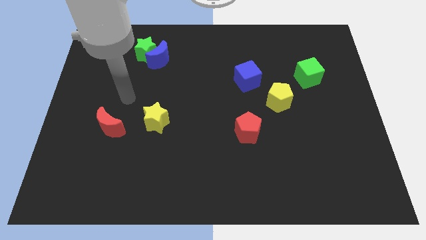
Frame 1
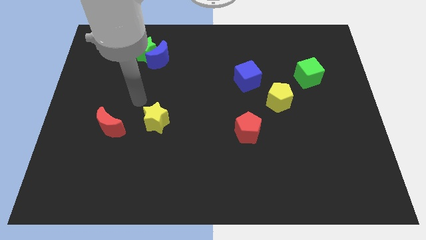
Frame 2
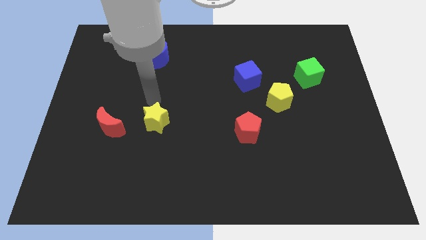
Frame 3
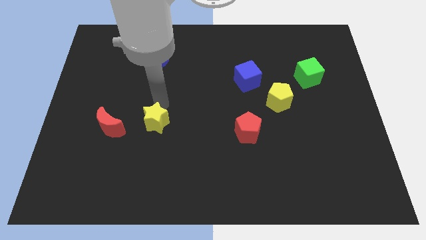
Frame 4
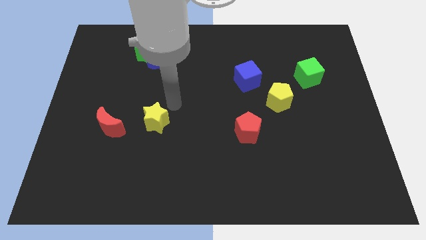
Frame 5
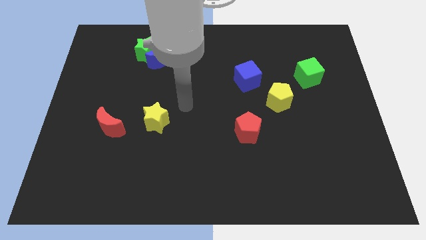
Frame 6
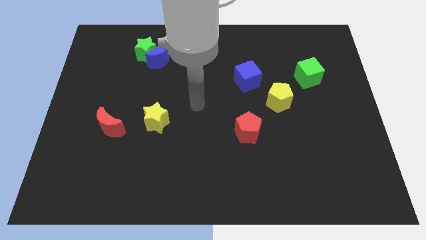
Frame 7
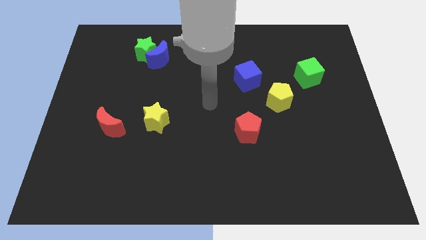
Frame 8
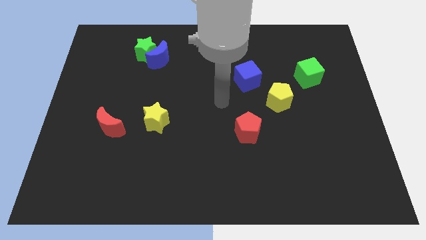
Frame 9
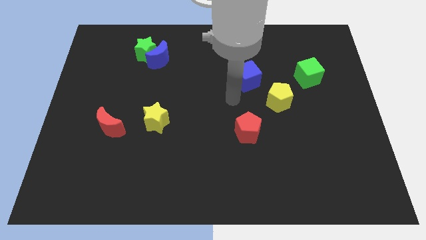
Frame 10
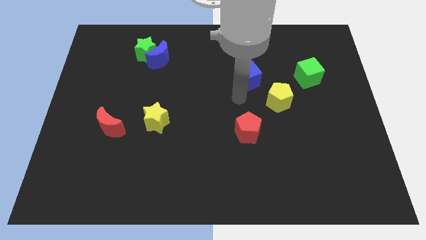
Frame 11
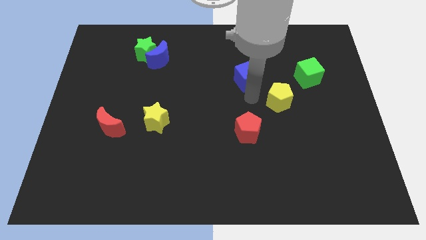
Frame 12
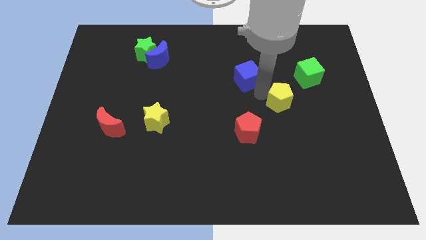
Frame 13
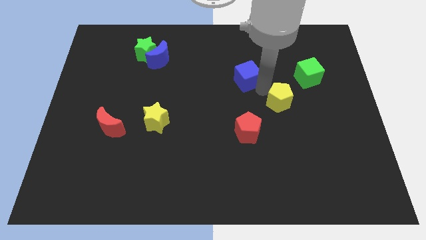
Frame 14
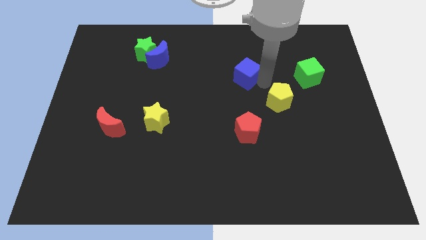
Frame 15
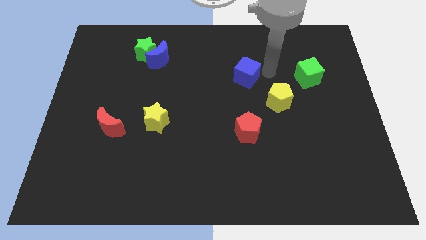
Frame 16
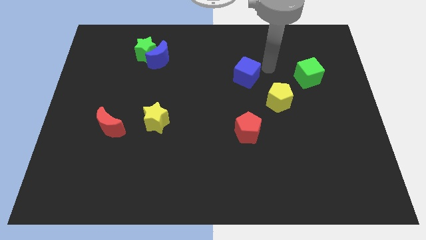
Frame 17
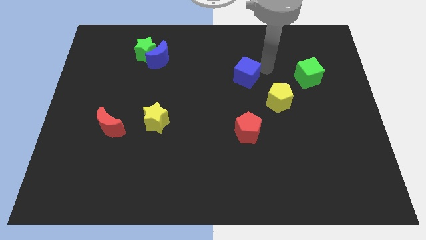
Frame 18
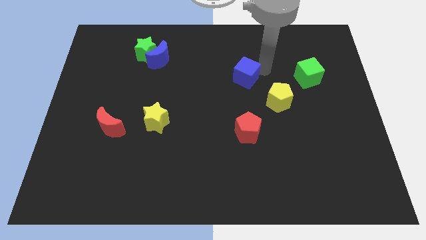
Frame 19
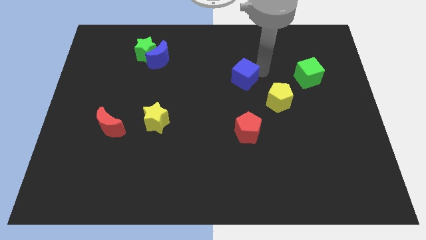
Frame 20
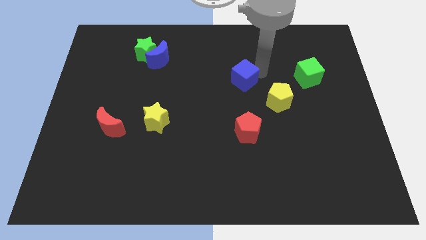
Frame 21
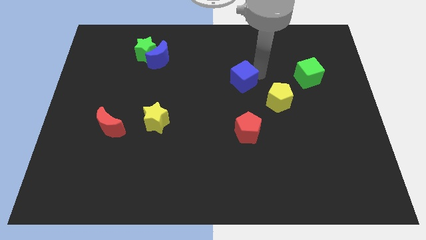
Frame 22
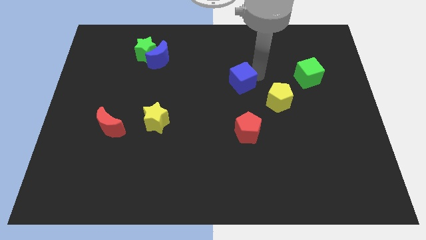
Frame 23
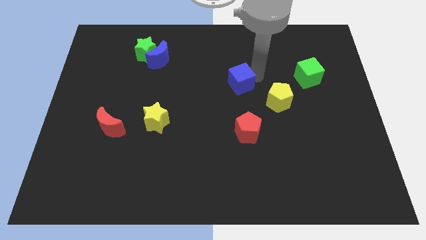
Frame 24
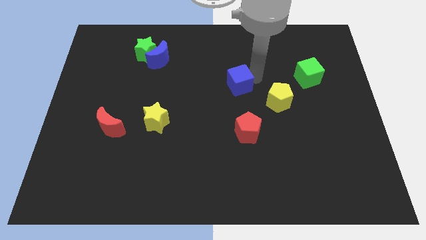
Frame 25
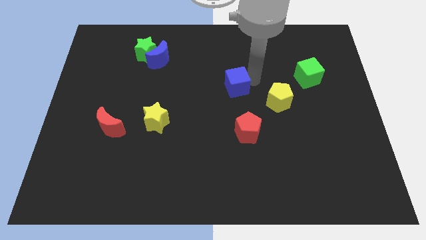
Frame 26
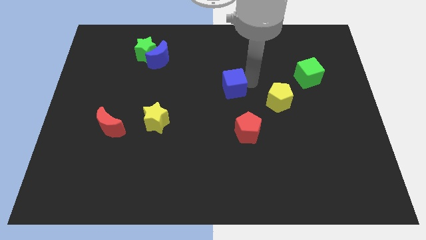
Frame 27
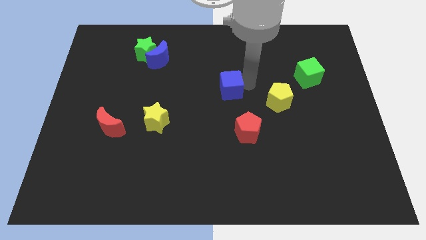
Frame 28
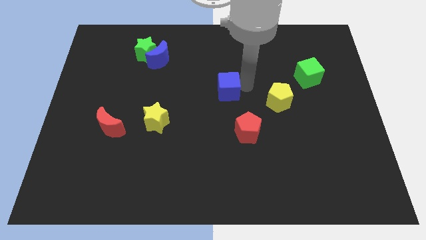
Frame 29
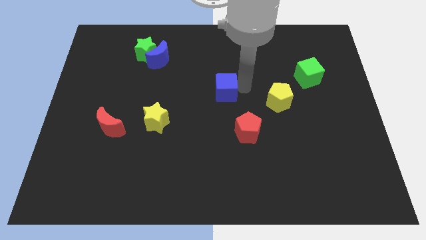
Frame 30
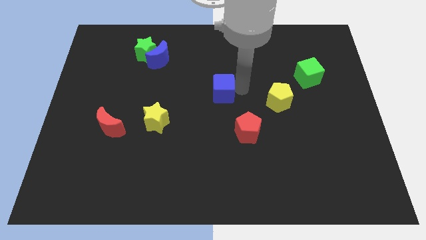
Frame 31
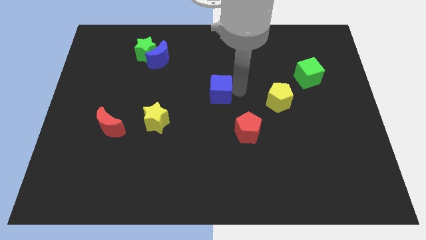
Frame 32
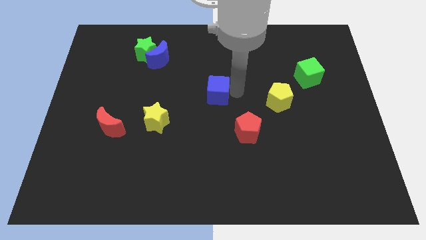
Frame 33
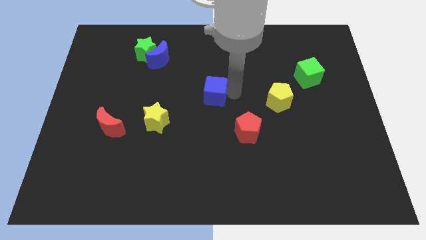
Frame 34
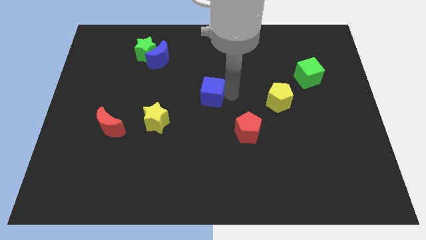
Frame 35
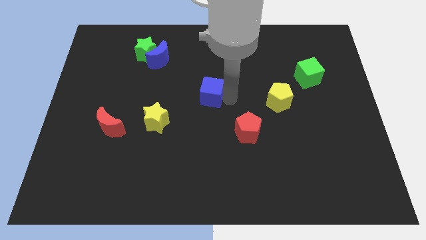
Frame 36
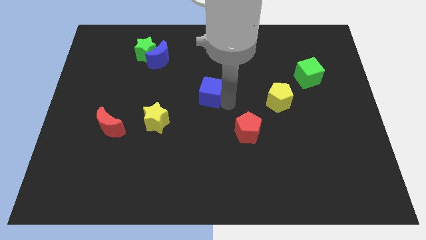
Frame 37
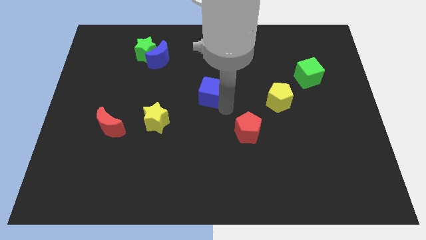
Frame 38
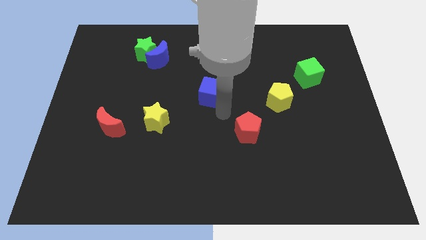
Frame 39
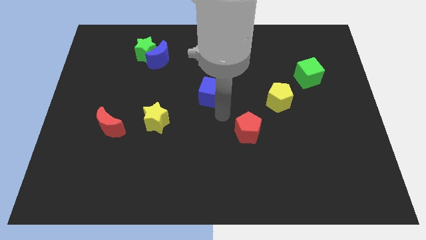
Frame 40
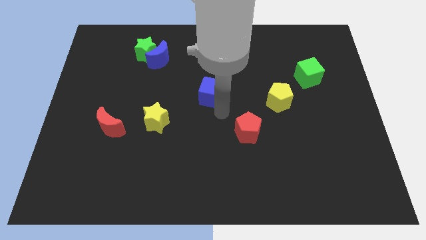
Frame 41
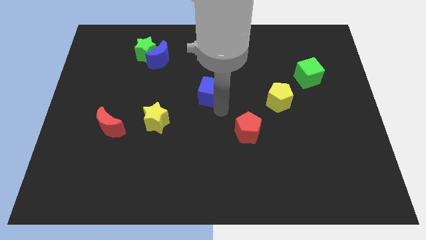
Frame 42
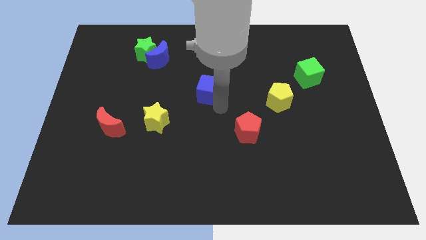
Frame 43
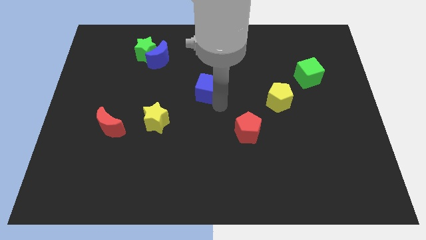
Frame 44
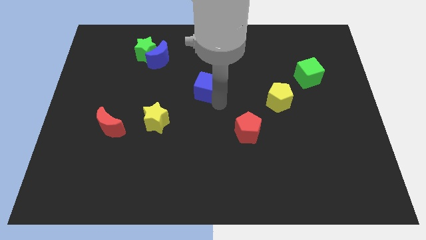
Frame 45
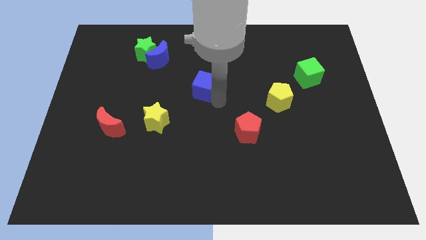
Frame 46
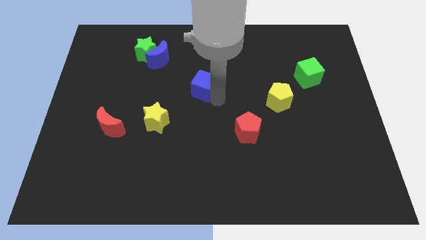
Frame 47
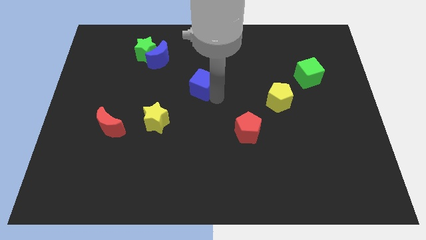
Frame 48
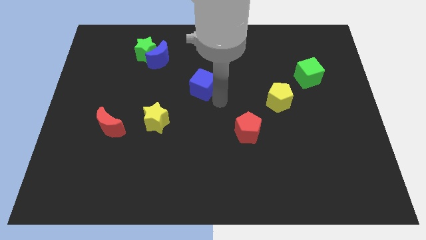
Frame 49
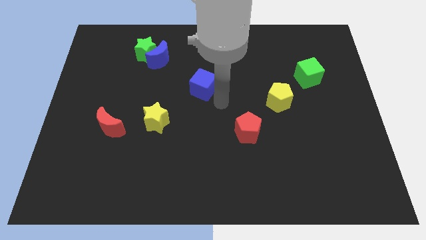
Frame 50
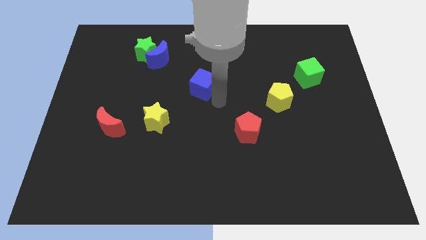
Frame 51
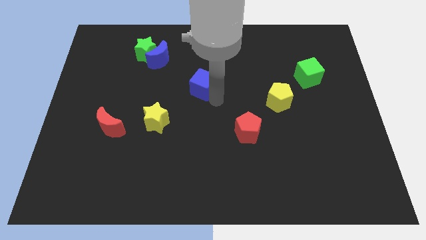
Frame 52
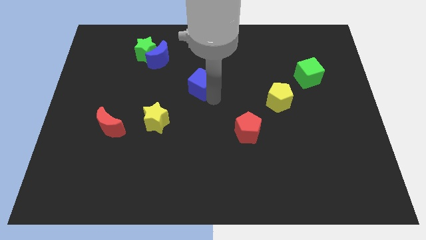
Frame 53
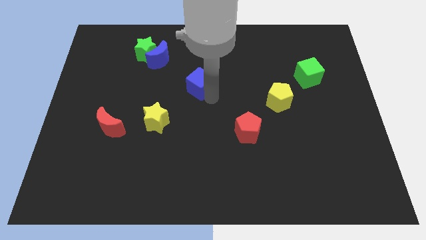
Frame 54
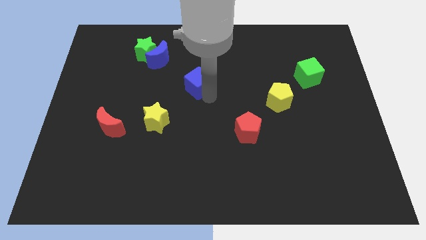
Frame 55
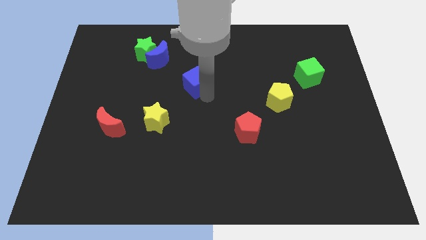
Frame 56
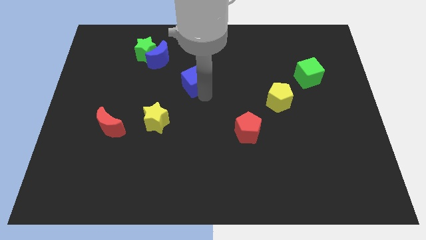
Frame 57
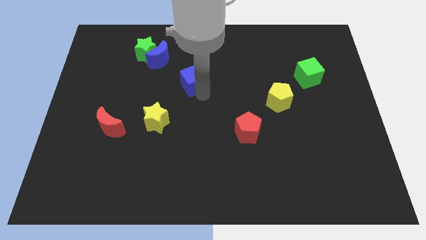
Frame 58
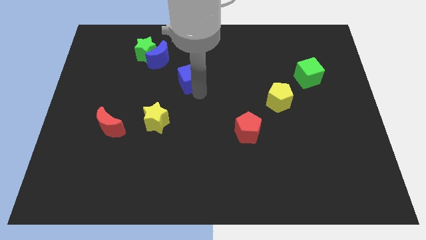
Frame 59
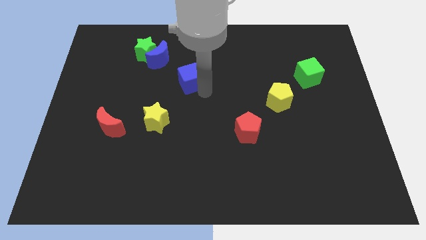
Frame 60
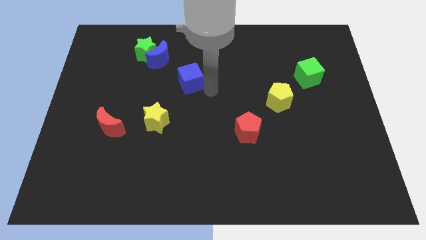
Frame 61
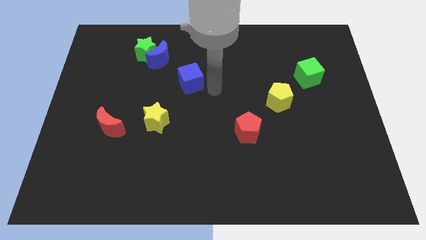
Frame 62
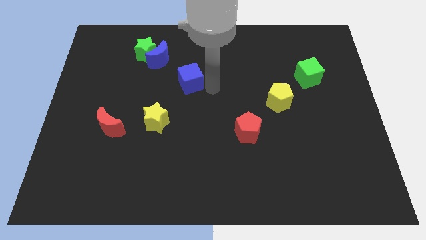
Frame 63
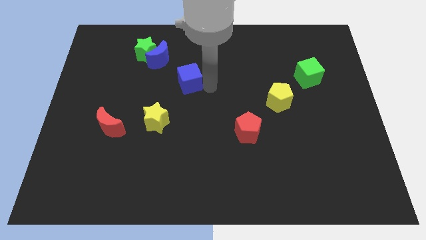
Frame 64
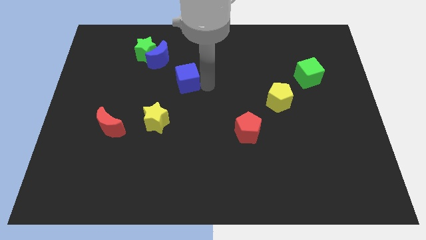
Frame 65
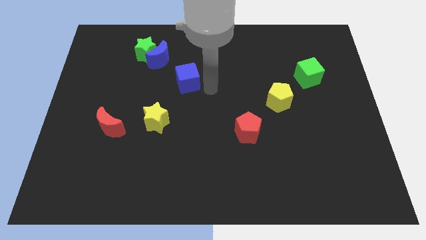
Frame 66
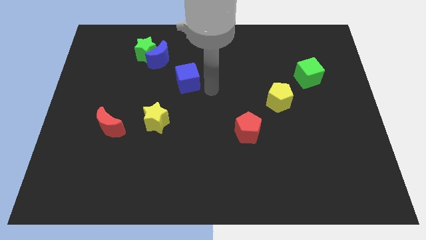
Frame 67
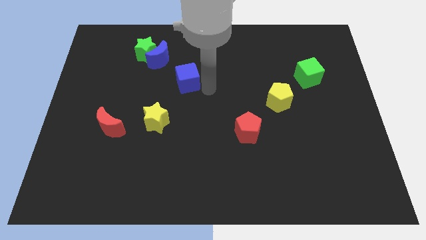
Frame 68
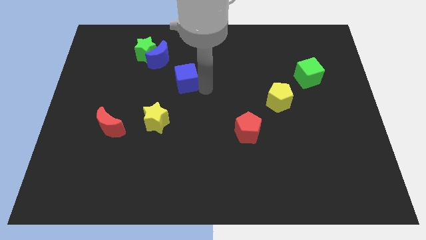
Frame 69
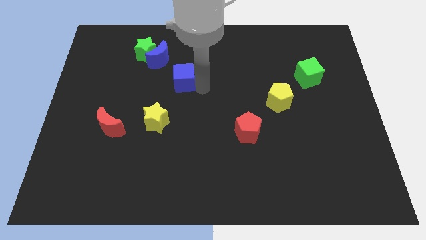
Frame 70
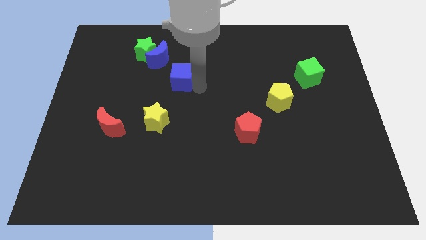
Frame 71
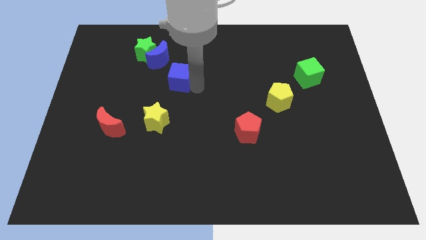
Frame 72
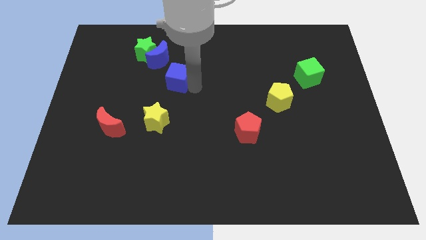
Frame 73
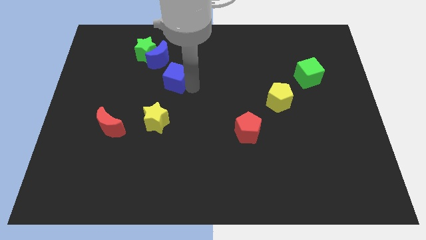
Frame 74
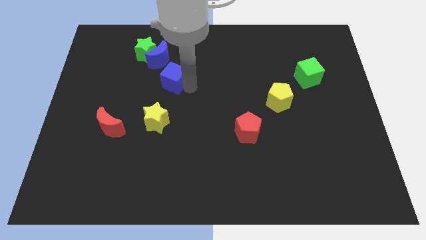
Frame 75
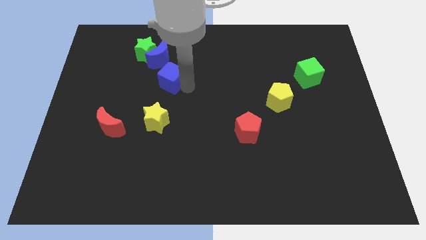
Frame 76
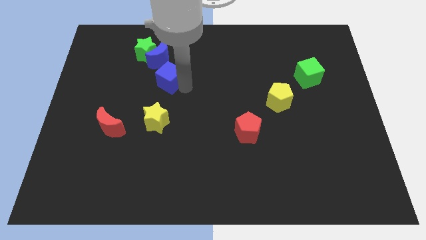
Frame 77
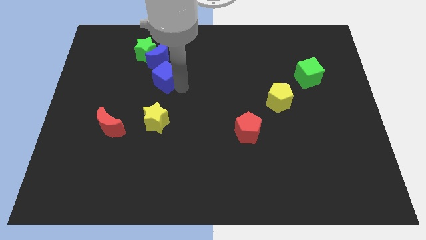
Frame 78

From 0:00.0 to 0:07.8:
slide the blue cube to the left
